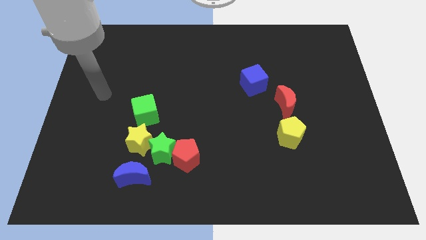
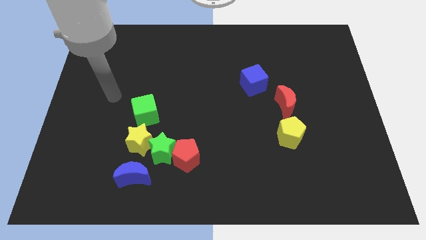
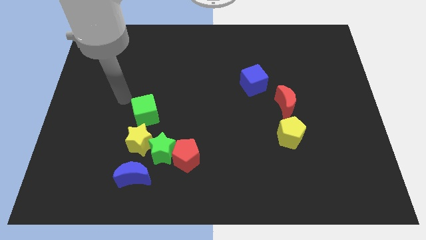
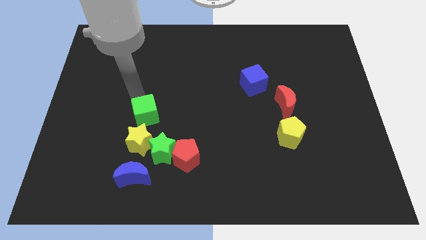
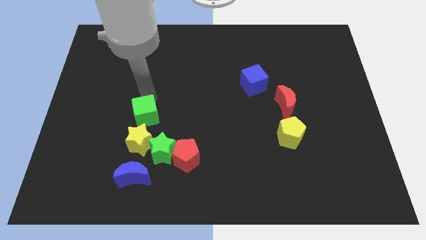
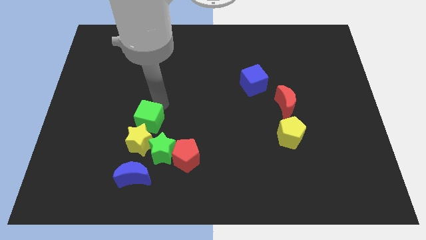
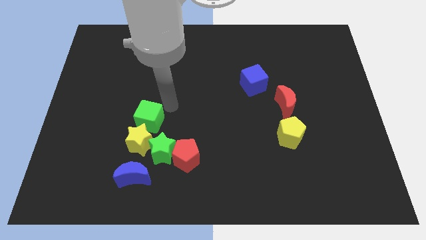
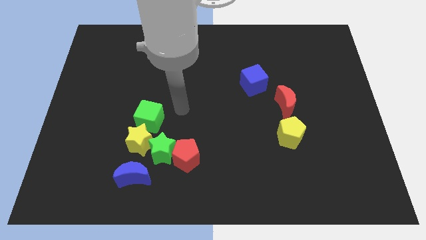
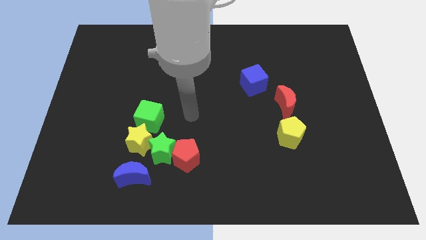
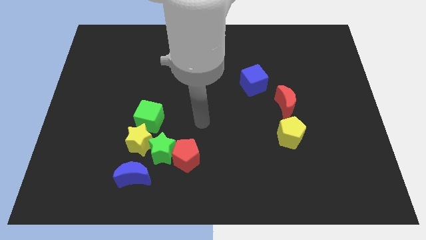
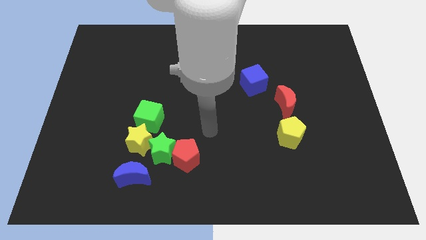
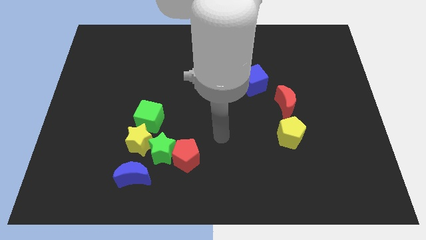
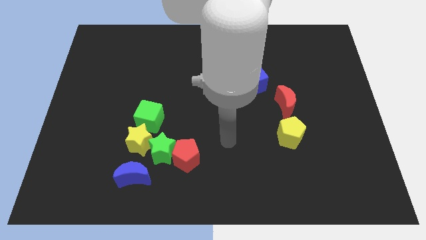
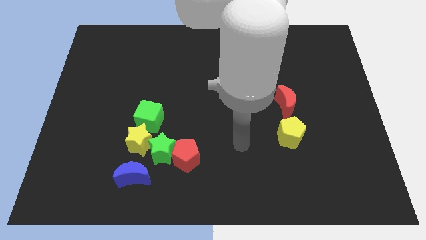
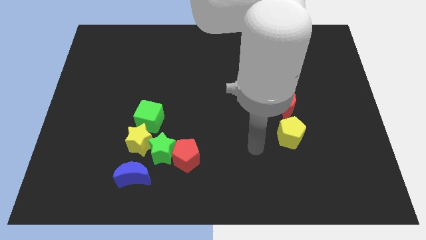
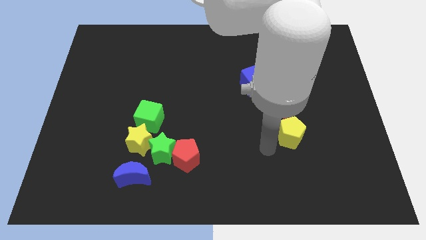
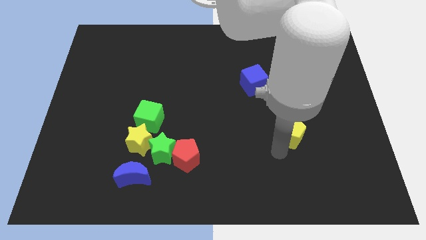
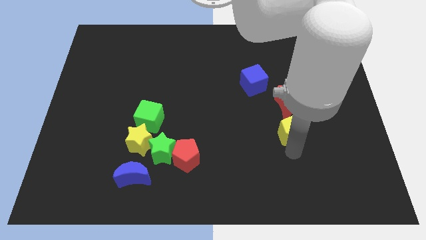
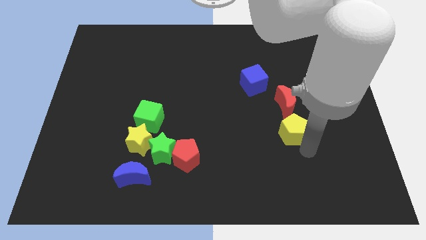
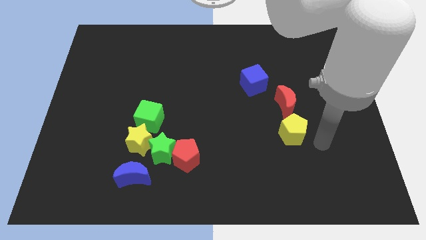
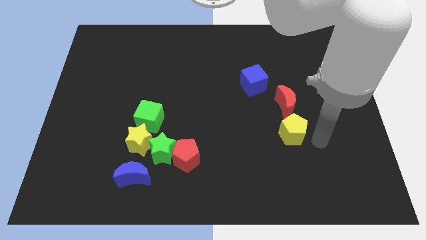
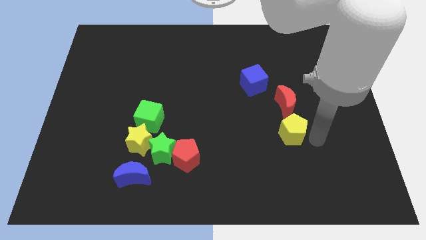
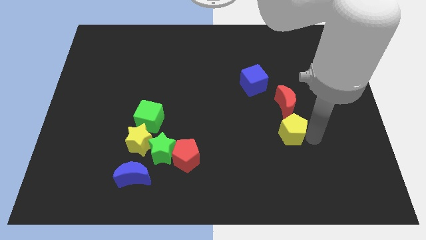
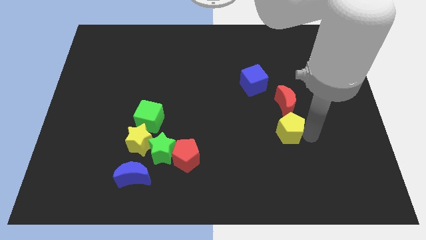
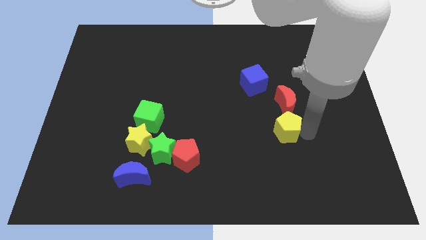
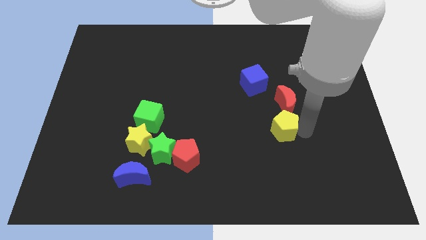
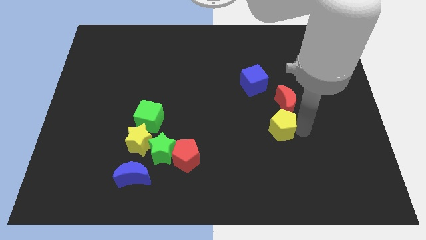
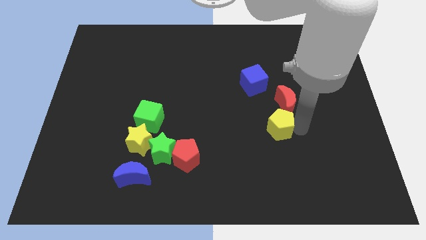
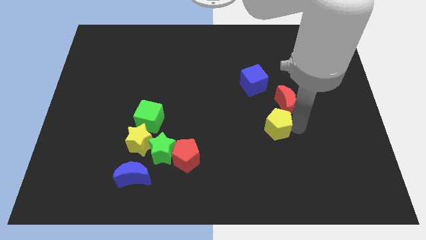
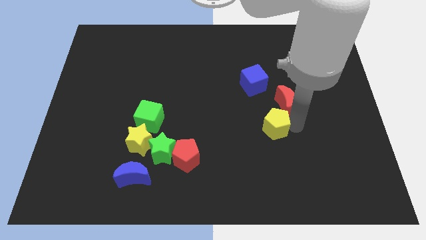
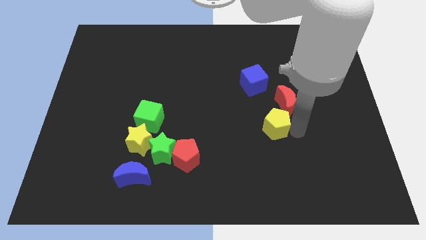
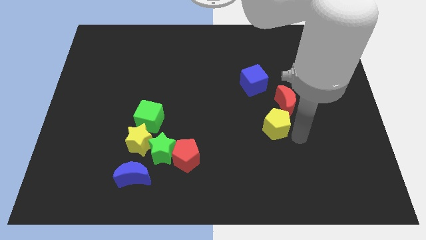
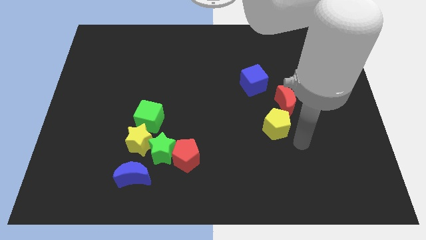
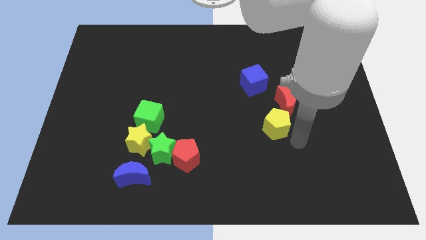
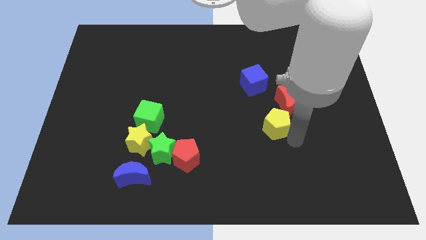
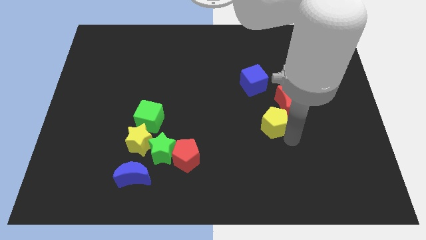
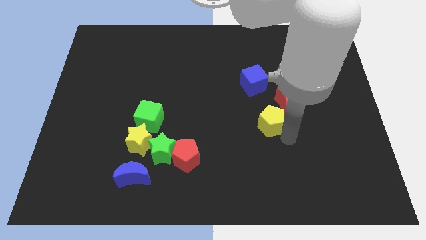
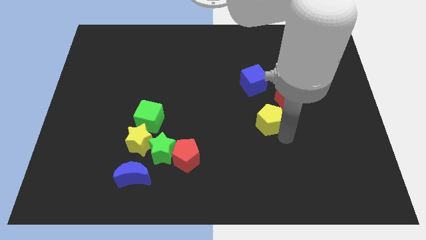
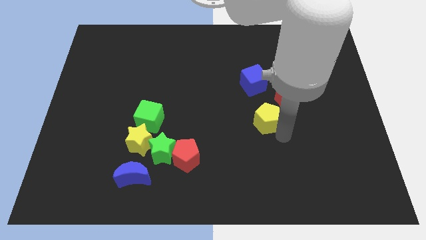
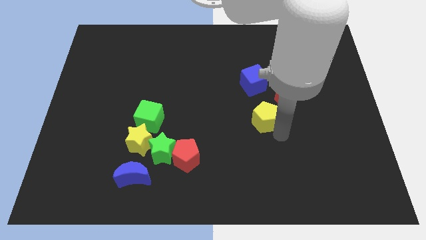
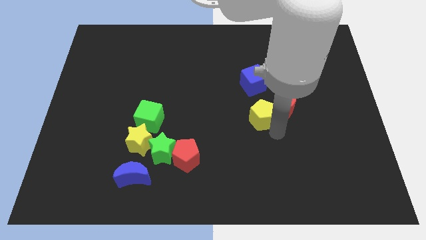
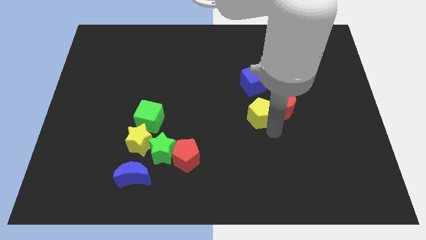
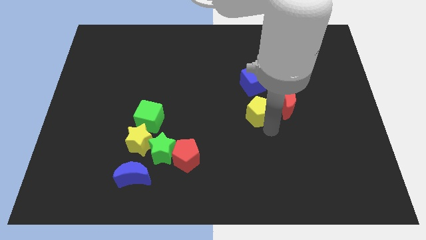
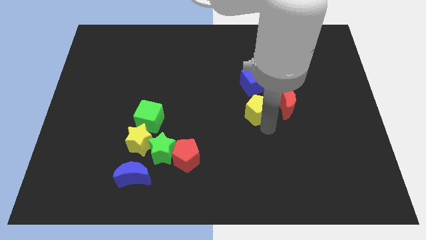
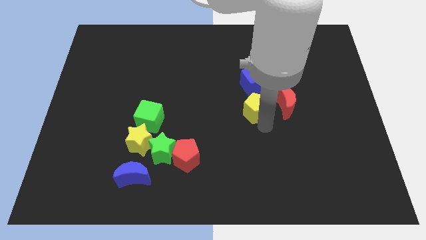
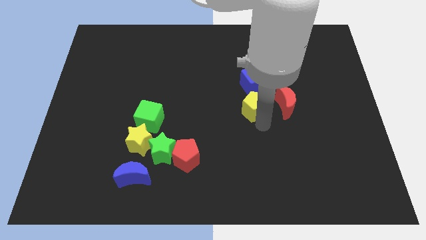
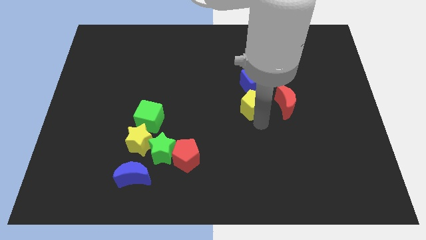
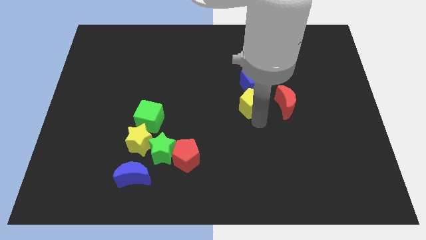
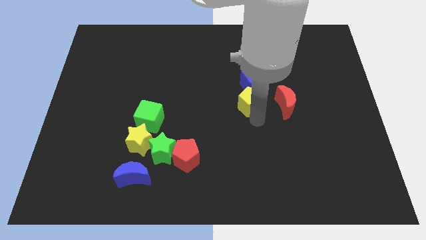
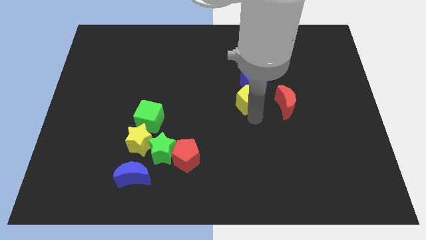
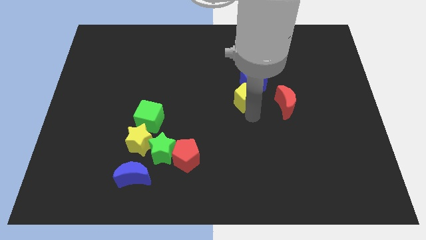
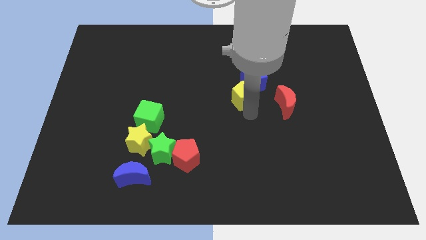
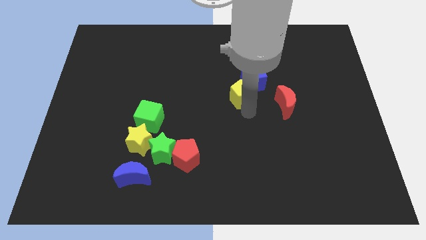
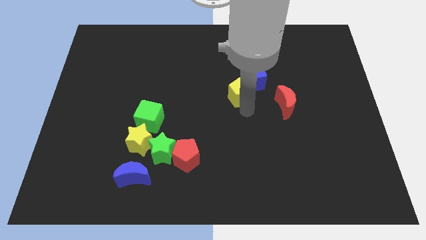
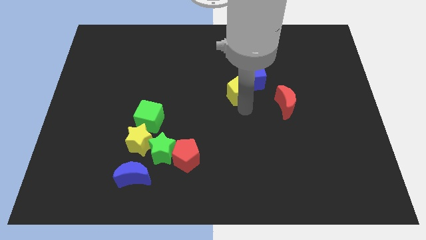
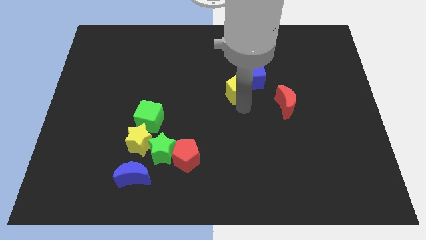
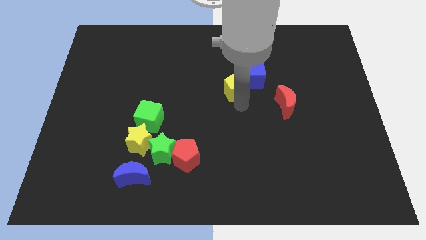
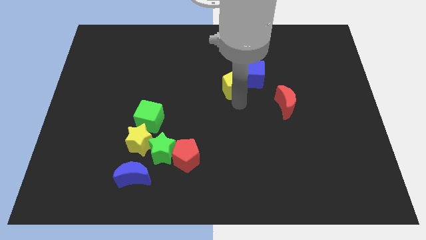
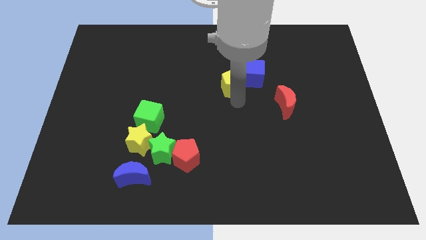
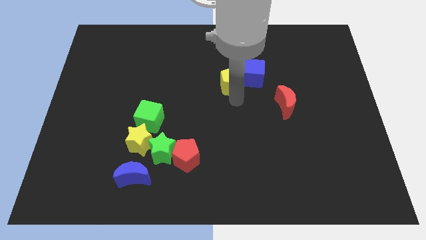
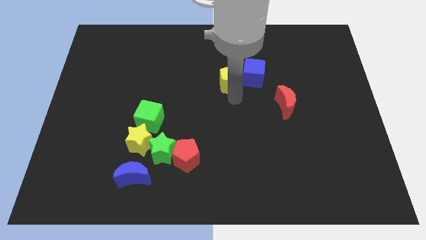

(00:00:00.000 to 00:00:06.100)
slide the yellow pentagon diagonally up and left

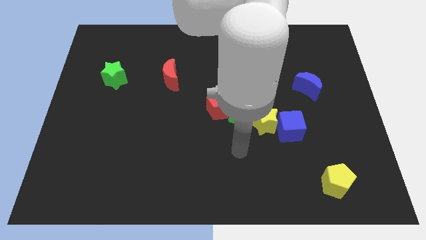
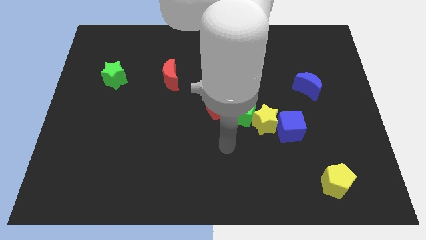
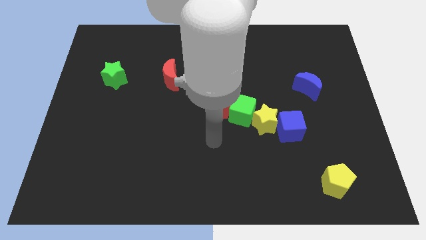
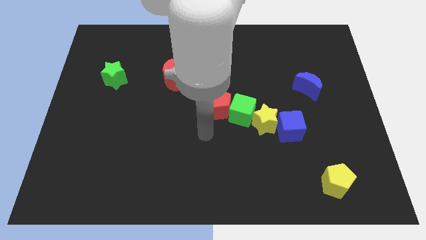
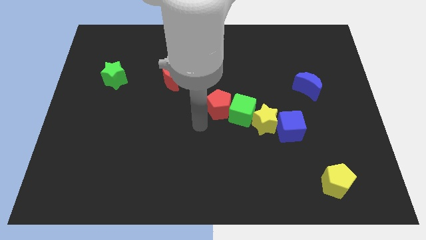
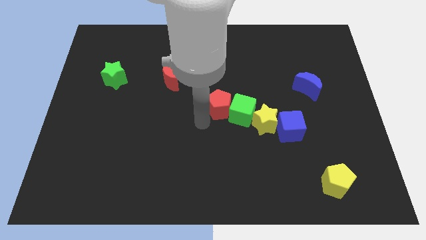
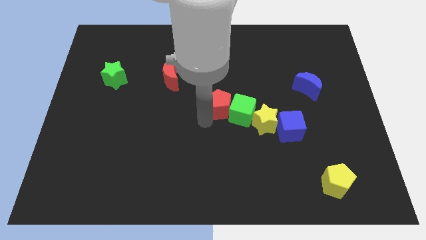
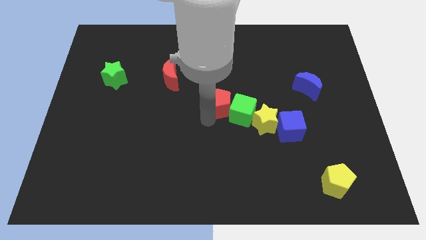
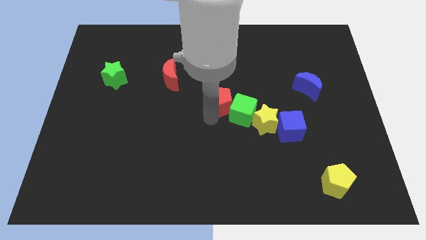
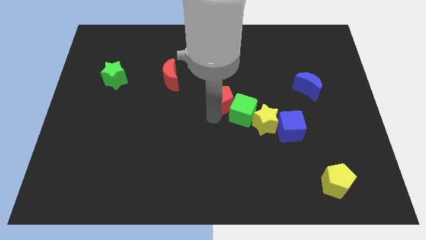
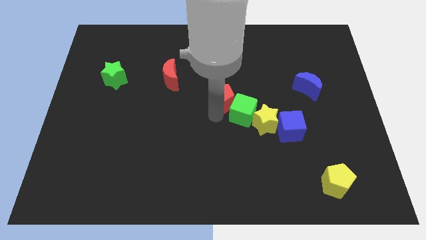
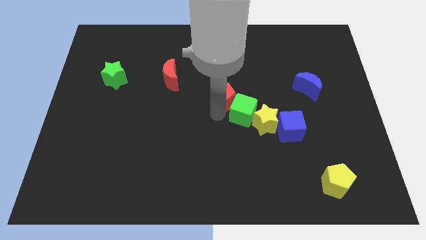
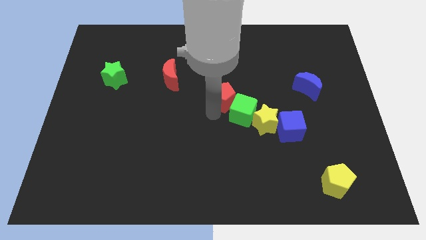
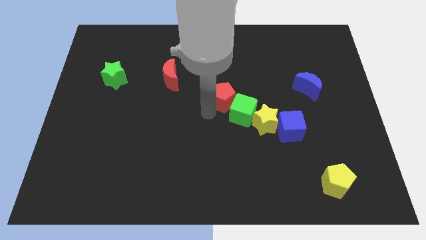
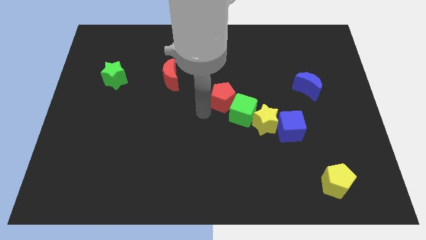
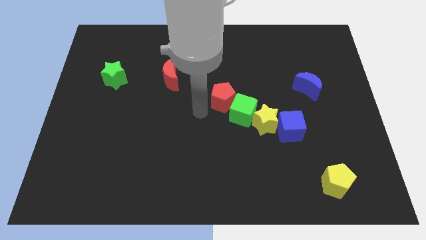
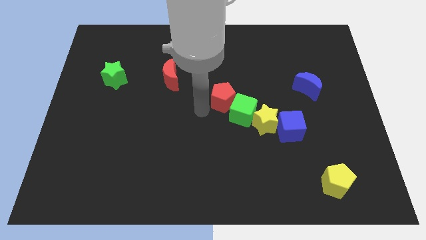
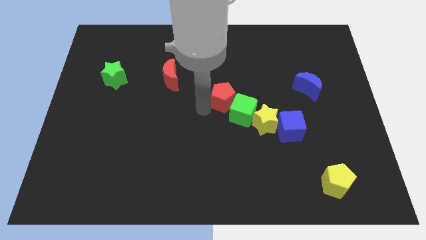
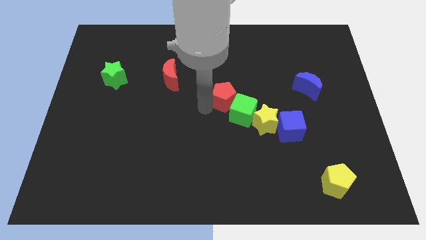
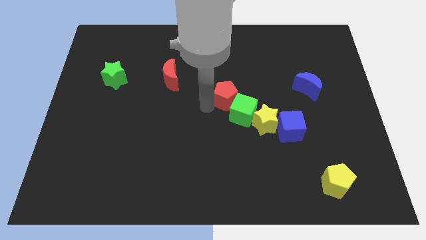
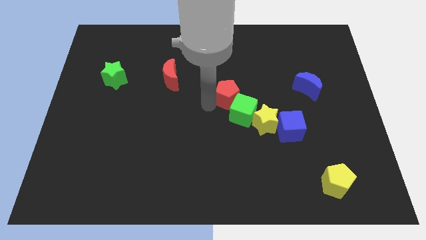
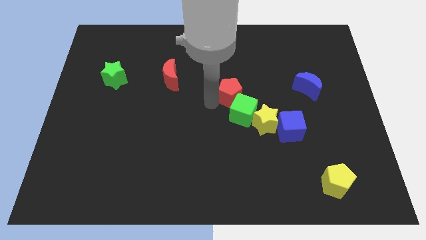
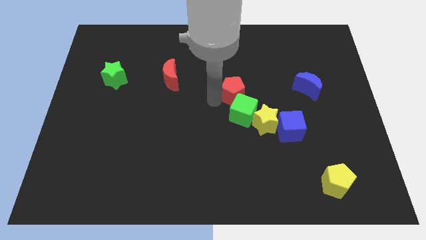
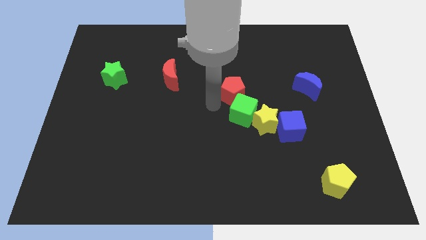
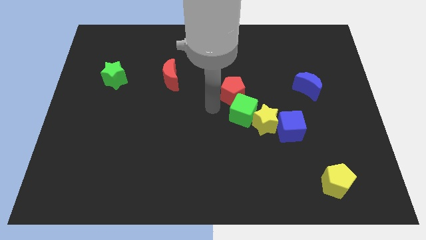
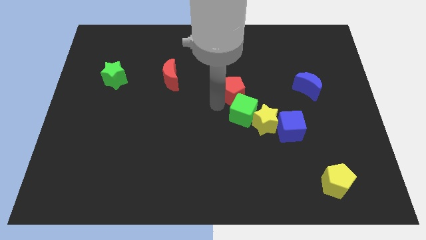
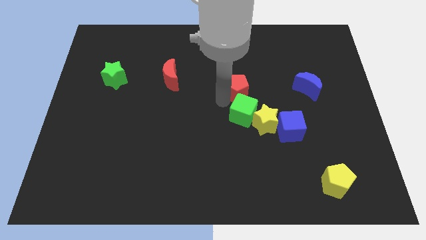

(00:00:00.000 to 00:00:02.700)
slide the red pentagon up and to the right slightly
